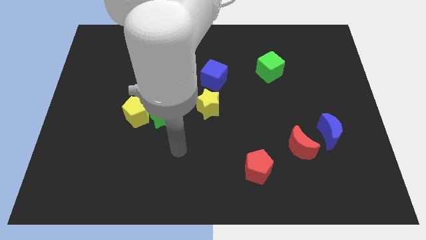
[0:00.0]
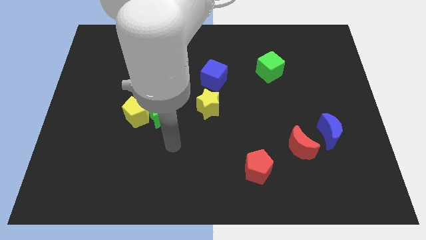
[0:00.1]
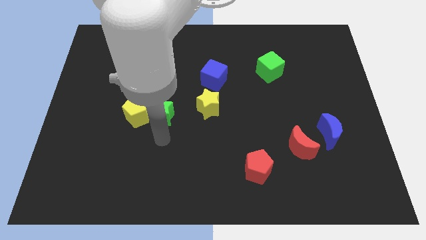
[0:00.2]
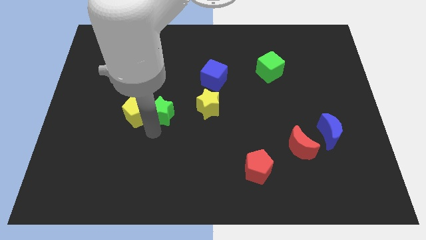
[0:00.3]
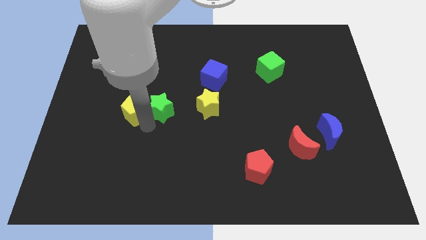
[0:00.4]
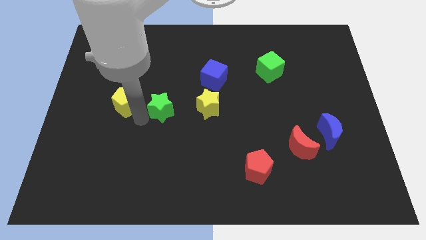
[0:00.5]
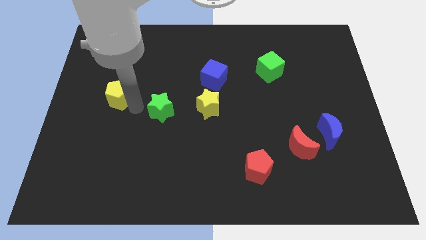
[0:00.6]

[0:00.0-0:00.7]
move the green star away from the yellow pentagon

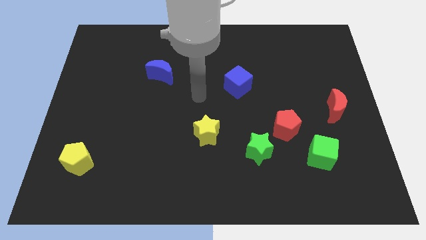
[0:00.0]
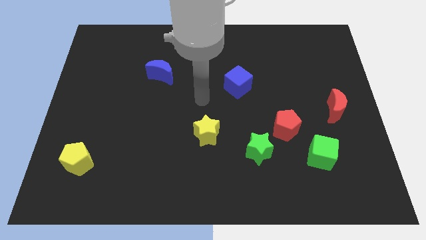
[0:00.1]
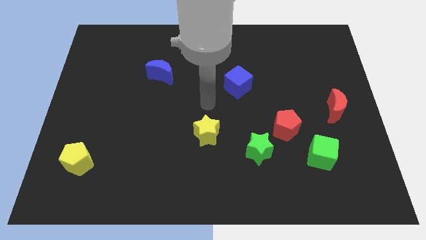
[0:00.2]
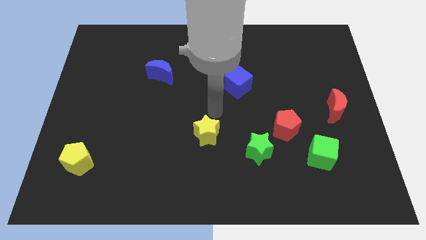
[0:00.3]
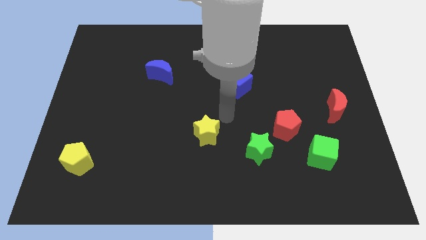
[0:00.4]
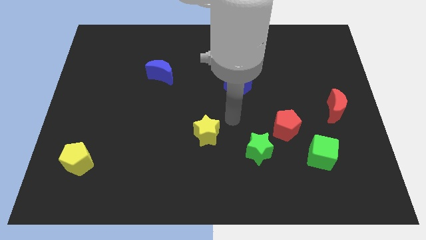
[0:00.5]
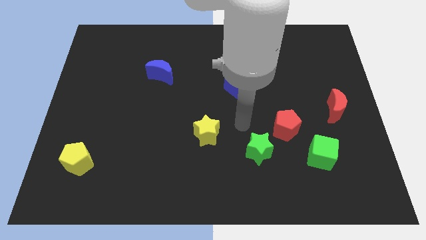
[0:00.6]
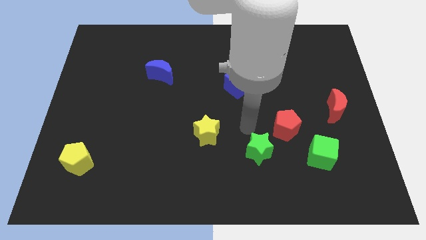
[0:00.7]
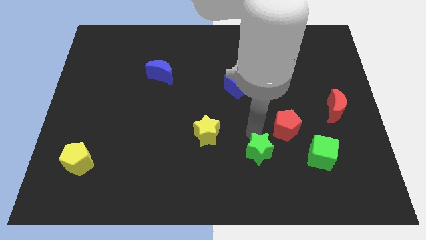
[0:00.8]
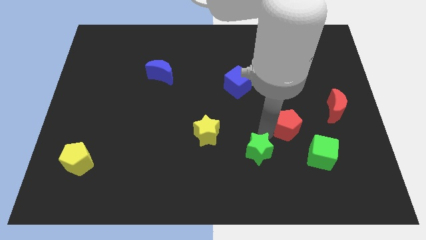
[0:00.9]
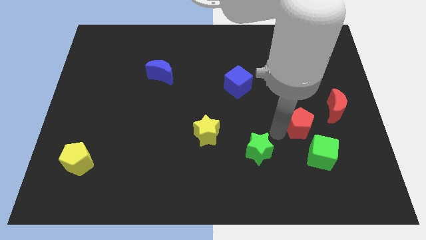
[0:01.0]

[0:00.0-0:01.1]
separate the green star from the red pentagon

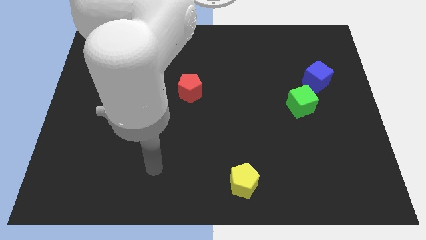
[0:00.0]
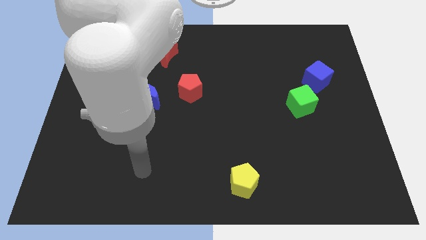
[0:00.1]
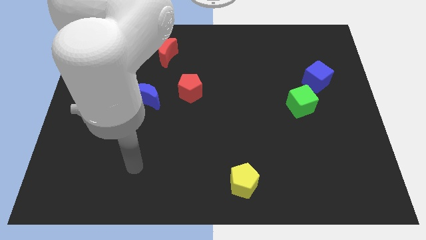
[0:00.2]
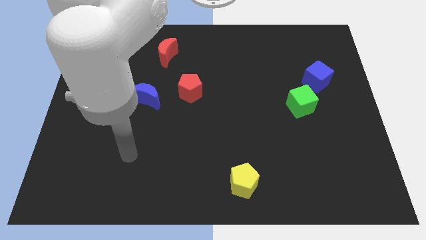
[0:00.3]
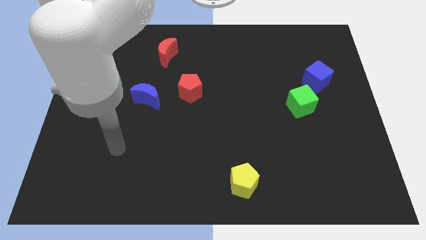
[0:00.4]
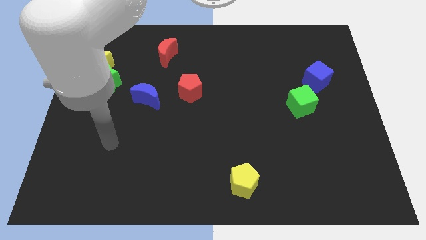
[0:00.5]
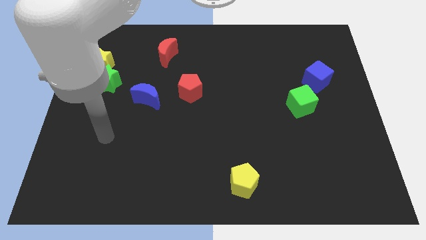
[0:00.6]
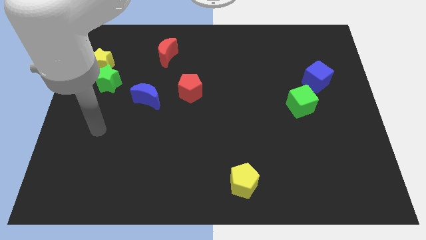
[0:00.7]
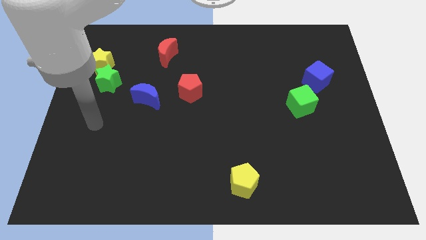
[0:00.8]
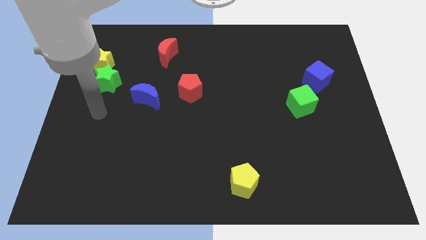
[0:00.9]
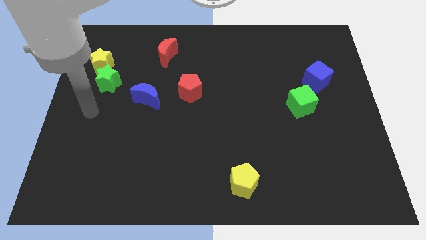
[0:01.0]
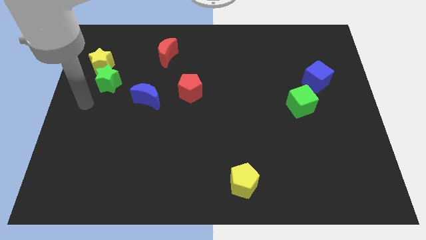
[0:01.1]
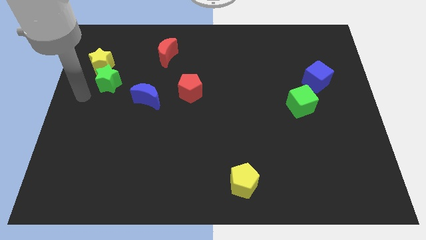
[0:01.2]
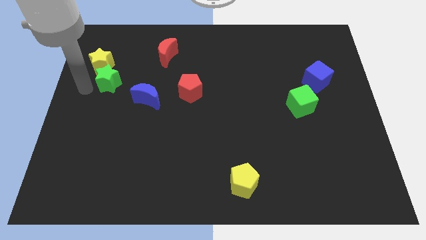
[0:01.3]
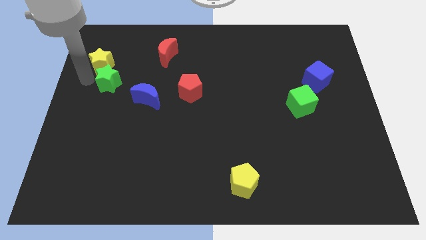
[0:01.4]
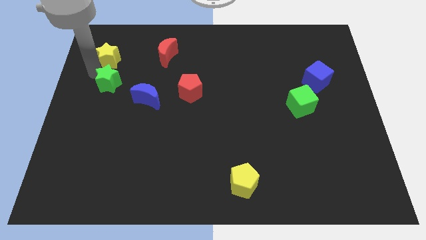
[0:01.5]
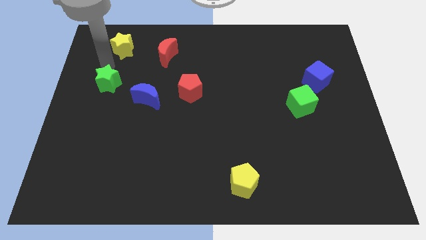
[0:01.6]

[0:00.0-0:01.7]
move the green star away from the yellow star

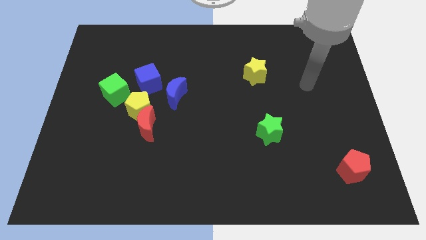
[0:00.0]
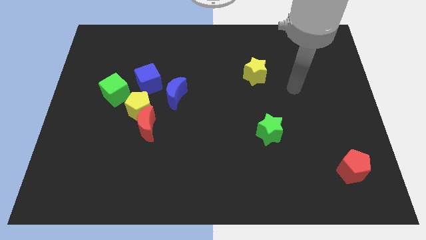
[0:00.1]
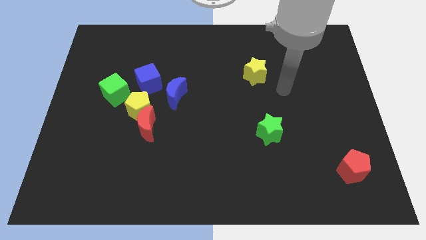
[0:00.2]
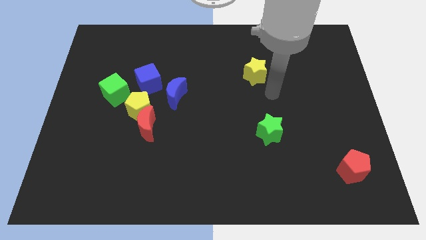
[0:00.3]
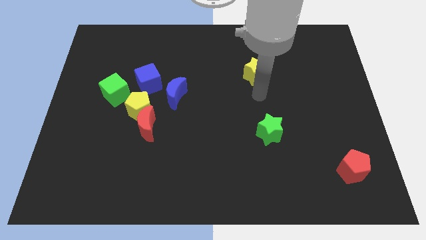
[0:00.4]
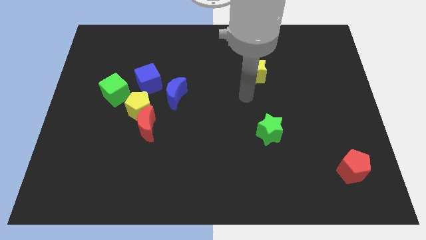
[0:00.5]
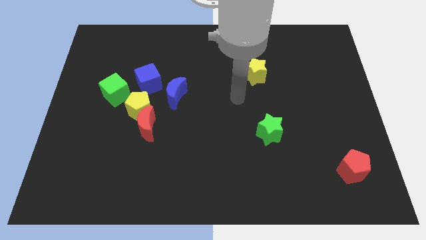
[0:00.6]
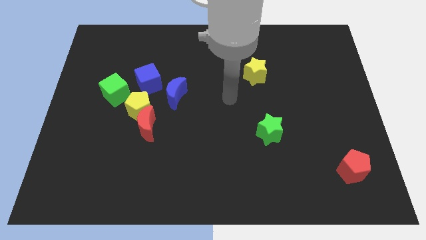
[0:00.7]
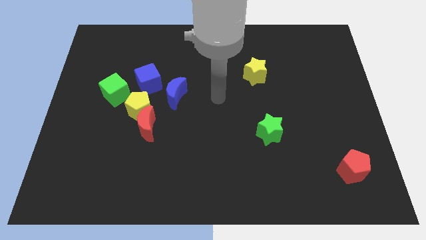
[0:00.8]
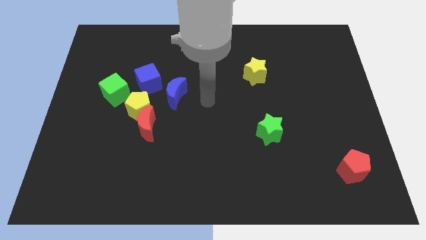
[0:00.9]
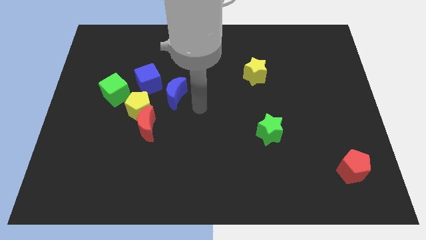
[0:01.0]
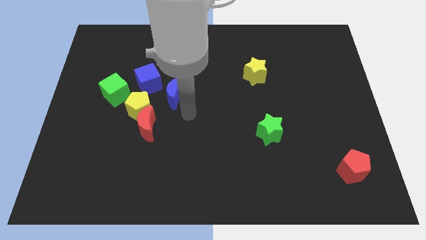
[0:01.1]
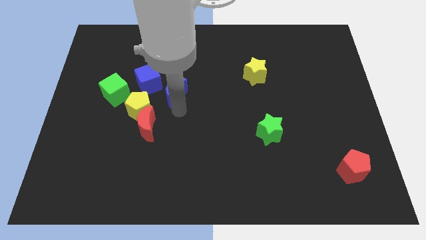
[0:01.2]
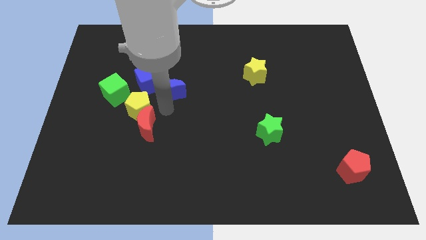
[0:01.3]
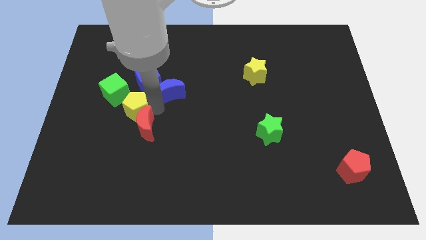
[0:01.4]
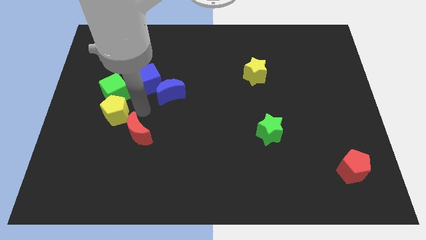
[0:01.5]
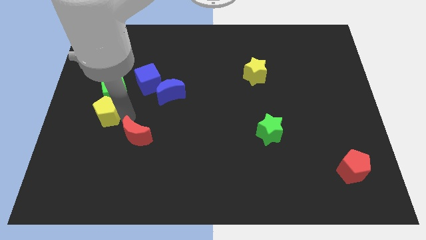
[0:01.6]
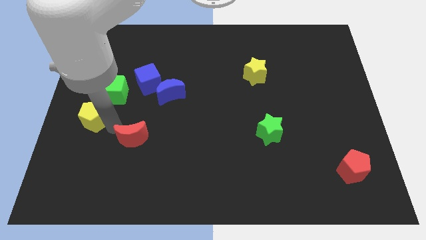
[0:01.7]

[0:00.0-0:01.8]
pull the red moon apart from the yellow pentagon

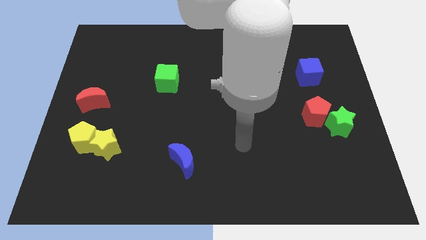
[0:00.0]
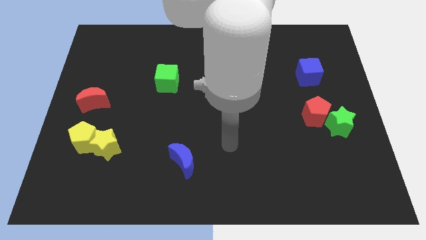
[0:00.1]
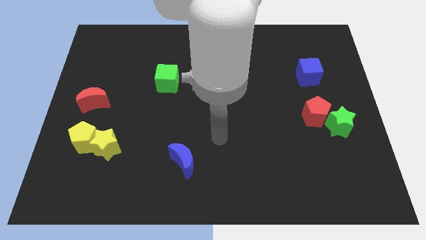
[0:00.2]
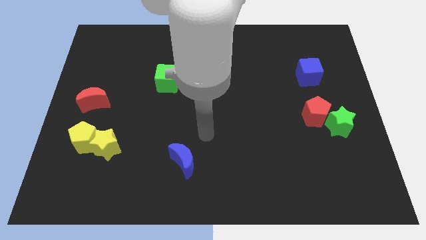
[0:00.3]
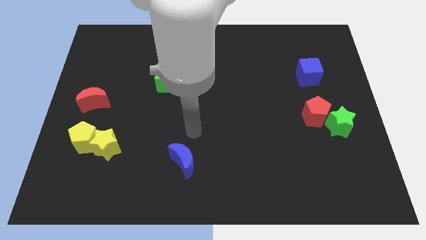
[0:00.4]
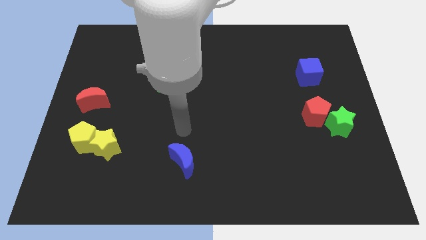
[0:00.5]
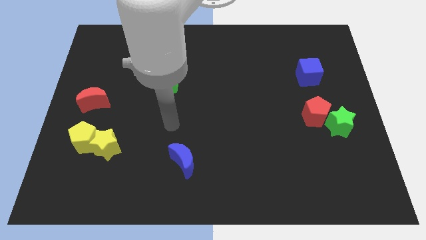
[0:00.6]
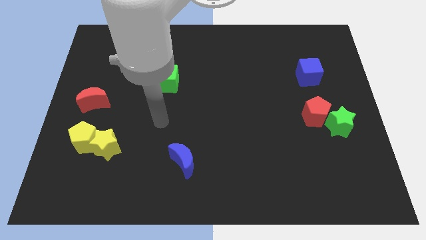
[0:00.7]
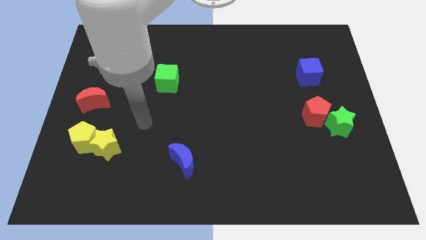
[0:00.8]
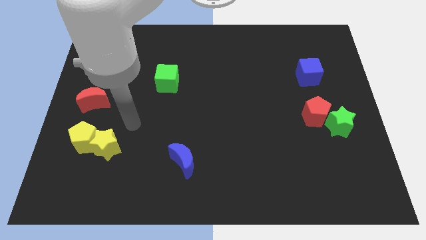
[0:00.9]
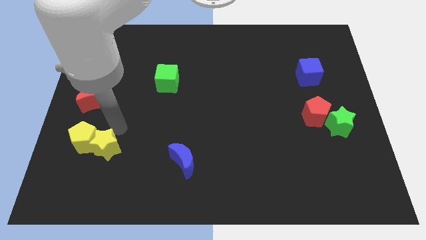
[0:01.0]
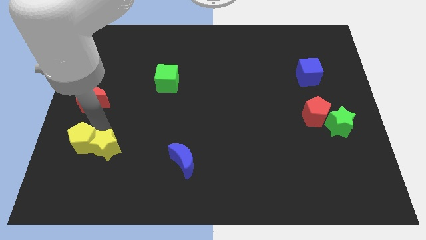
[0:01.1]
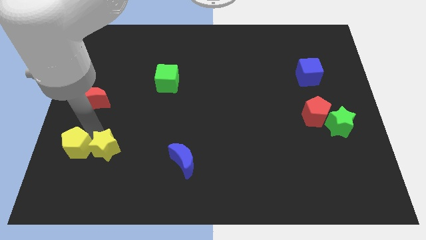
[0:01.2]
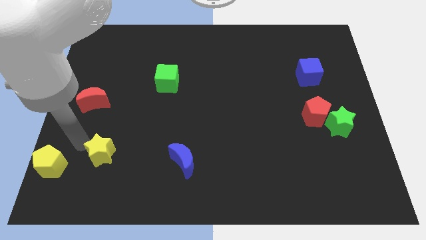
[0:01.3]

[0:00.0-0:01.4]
move the yellow star away from the yellow pentagon

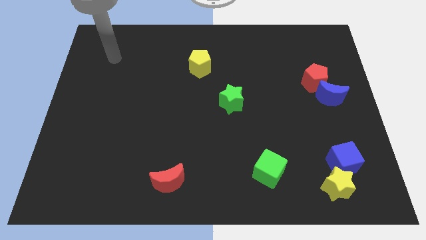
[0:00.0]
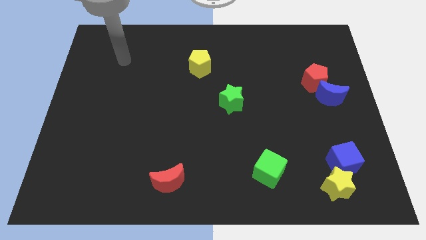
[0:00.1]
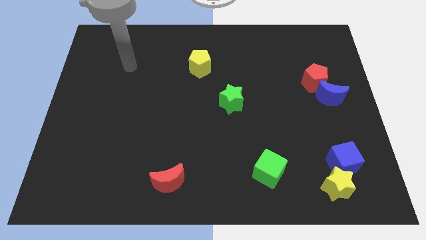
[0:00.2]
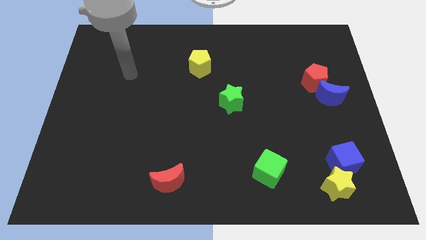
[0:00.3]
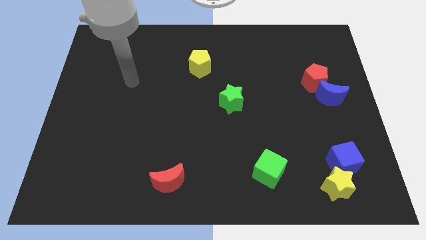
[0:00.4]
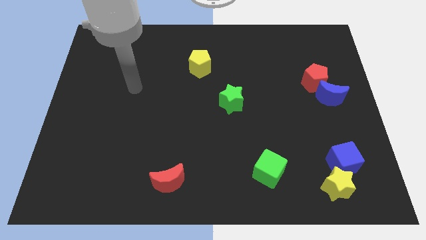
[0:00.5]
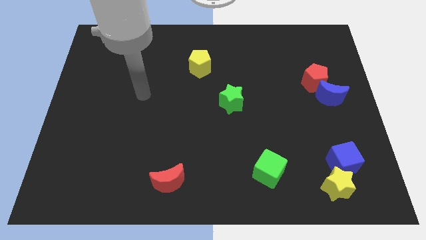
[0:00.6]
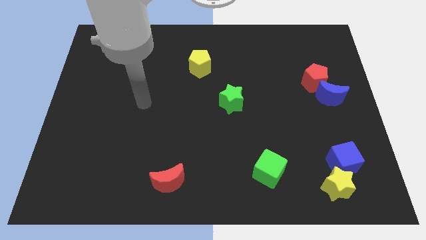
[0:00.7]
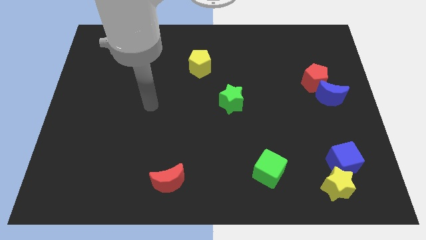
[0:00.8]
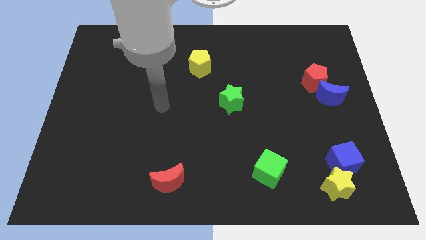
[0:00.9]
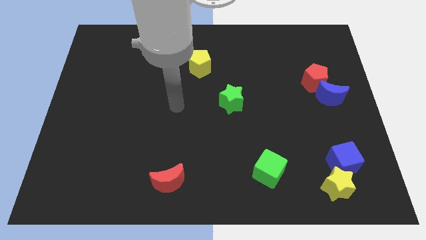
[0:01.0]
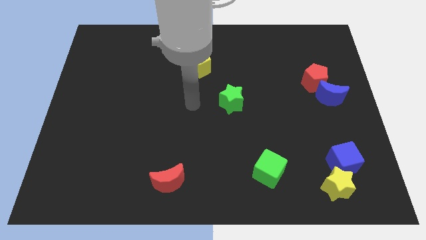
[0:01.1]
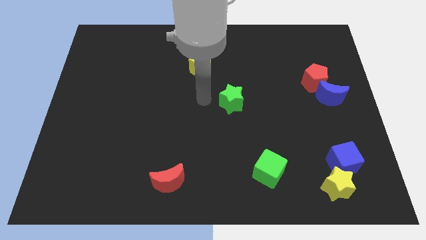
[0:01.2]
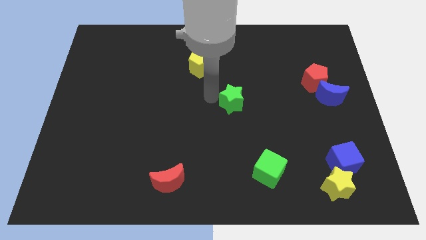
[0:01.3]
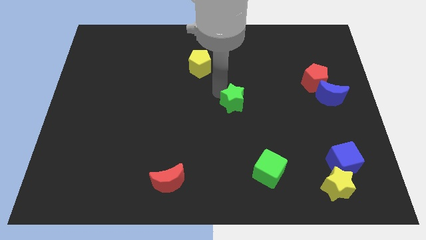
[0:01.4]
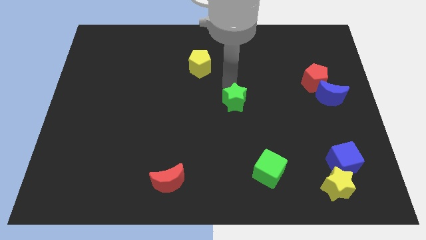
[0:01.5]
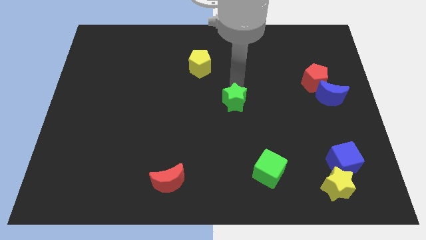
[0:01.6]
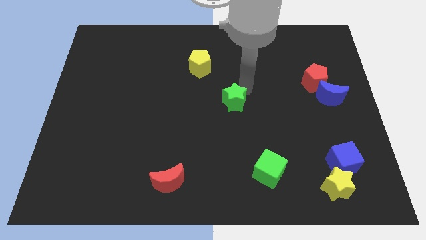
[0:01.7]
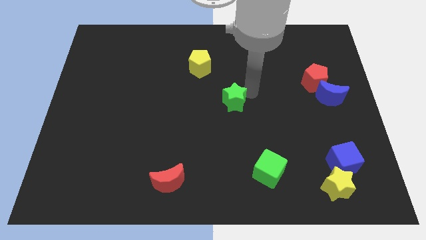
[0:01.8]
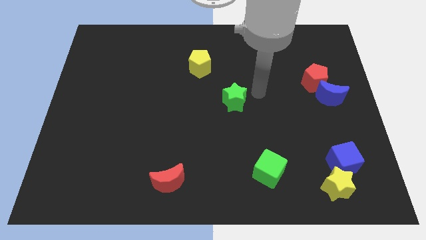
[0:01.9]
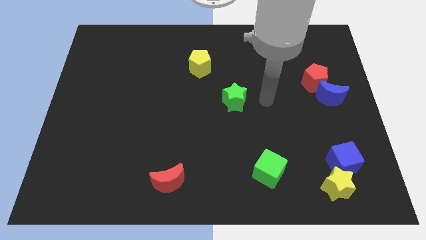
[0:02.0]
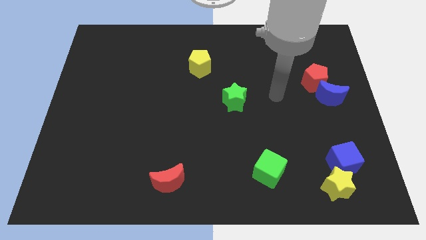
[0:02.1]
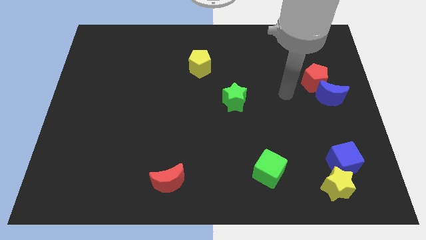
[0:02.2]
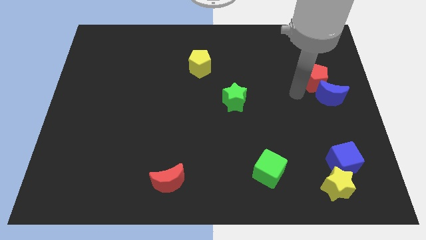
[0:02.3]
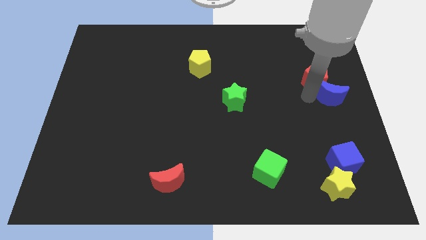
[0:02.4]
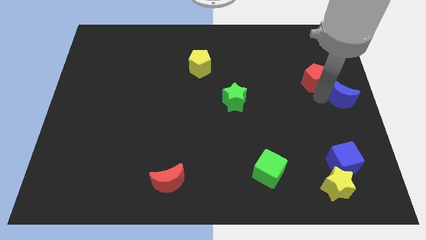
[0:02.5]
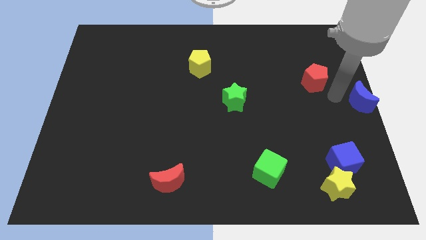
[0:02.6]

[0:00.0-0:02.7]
separate the red pentagon from the blue moon
